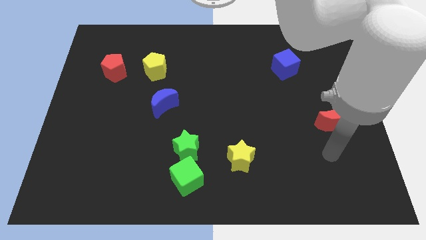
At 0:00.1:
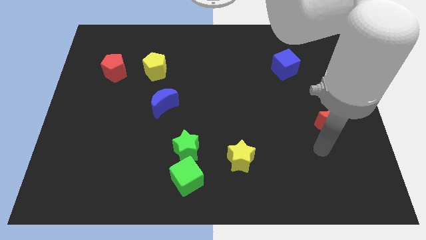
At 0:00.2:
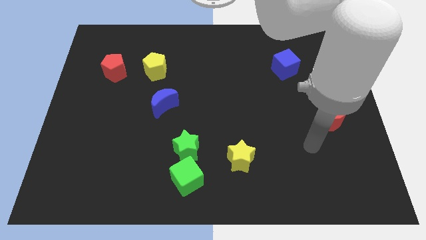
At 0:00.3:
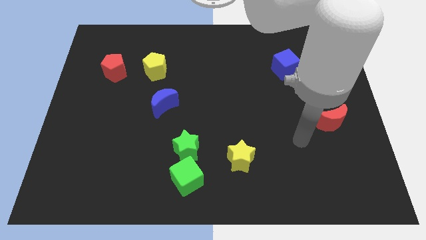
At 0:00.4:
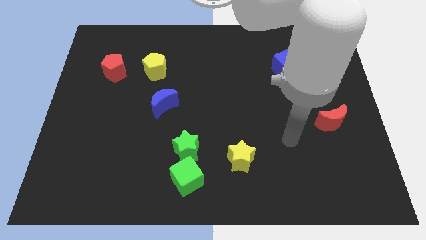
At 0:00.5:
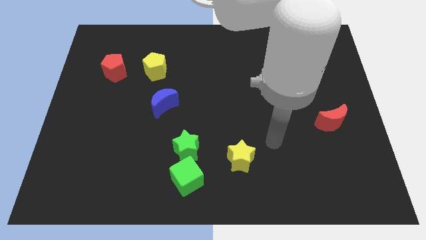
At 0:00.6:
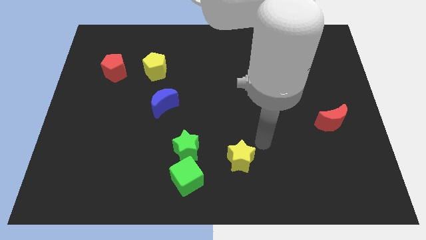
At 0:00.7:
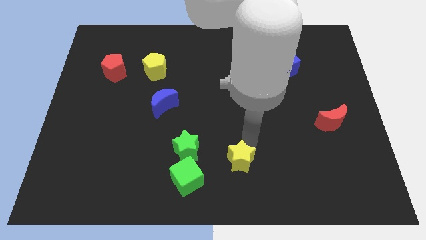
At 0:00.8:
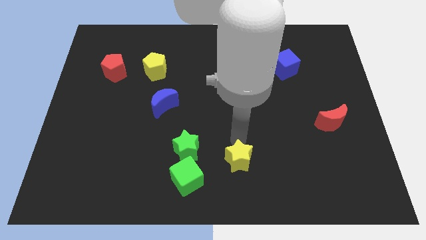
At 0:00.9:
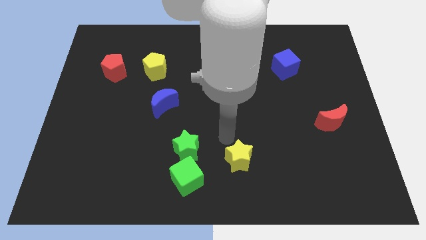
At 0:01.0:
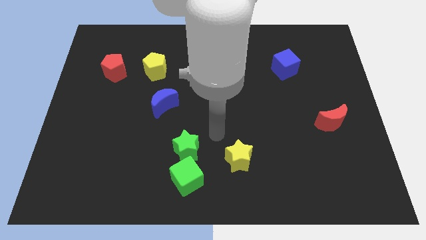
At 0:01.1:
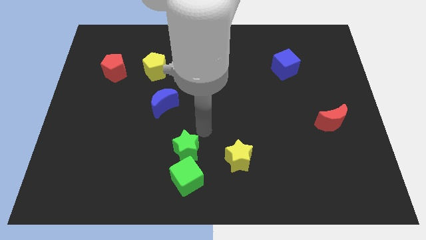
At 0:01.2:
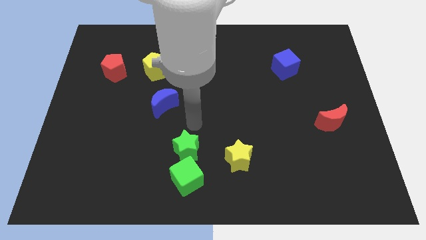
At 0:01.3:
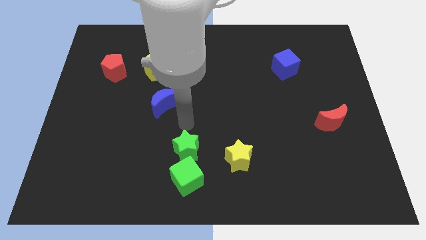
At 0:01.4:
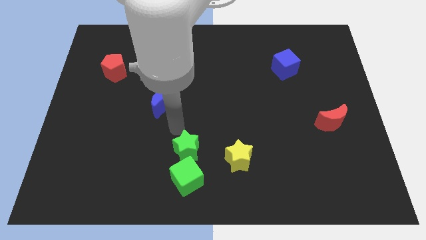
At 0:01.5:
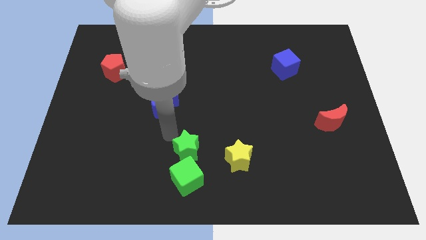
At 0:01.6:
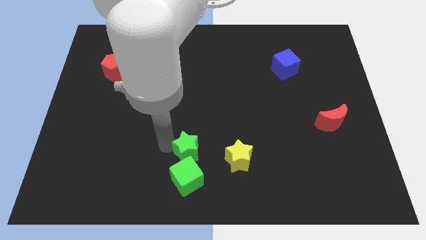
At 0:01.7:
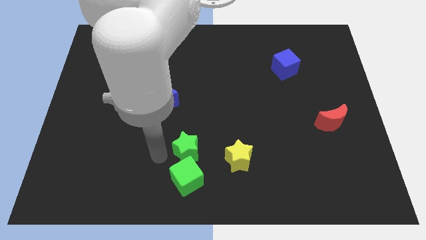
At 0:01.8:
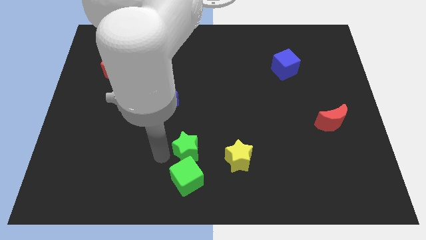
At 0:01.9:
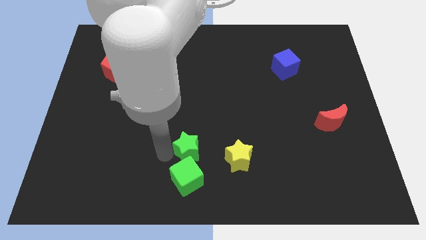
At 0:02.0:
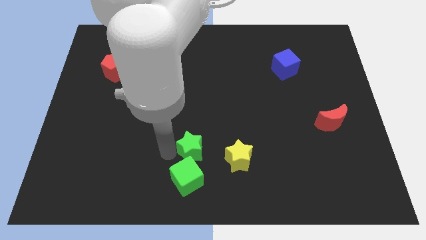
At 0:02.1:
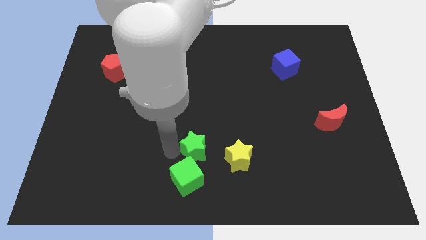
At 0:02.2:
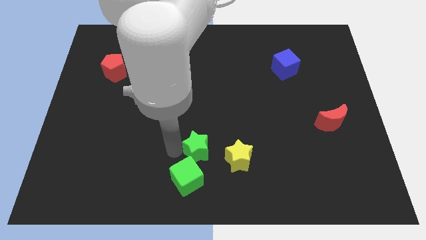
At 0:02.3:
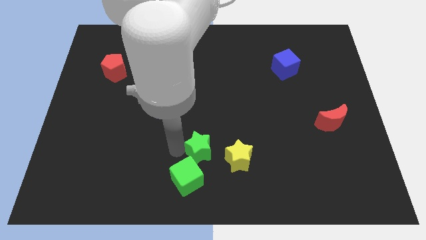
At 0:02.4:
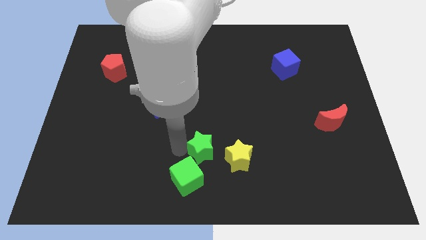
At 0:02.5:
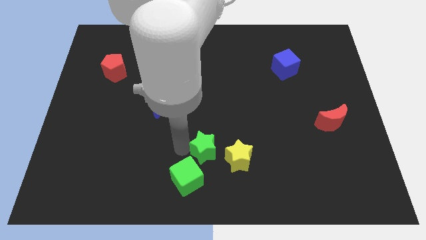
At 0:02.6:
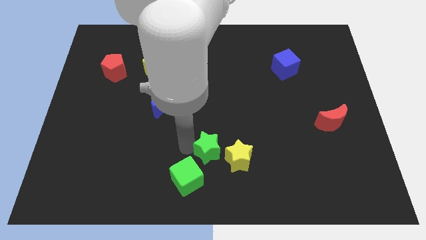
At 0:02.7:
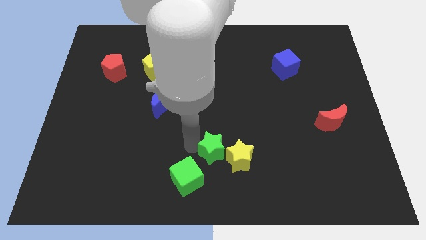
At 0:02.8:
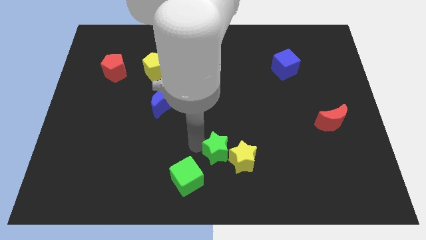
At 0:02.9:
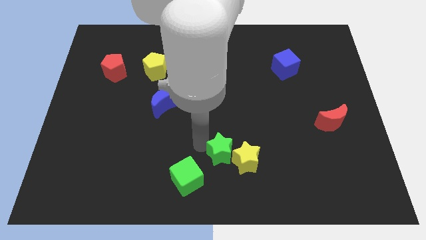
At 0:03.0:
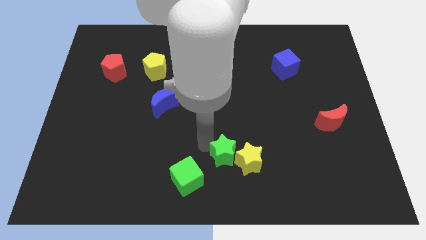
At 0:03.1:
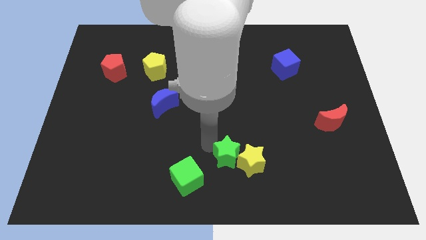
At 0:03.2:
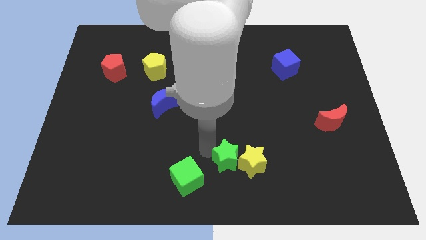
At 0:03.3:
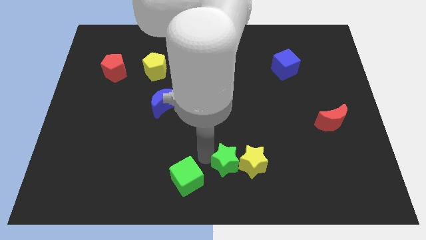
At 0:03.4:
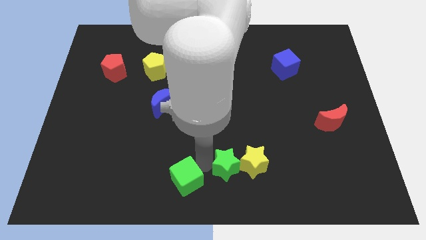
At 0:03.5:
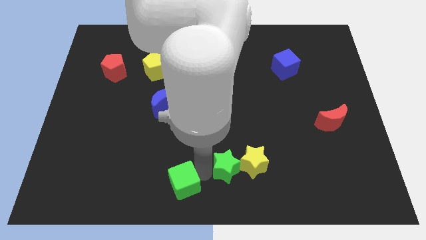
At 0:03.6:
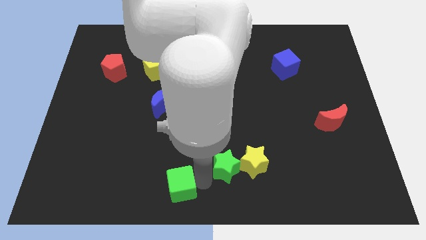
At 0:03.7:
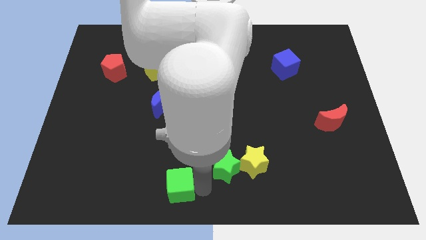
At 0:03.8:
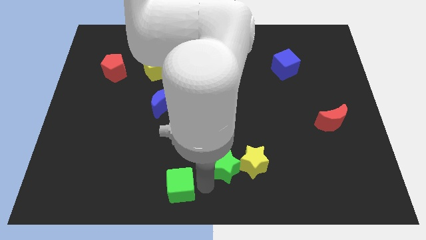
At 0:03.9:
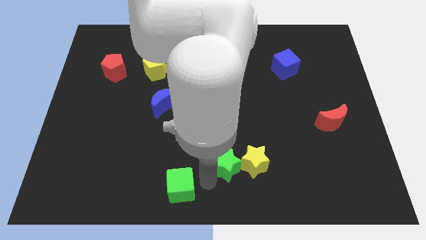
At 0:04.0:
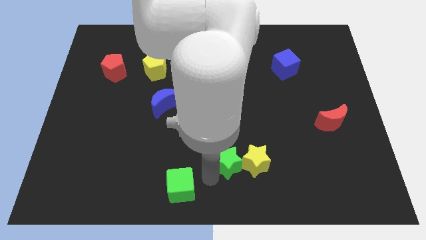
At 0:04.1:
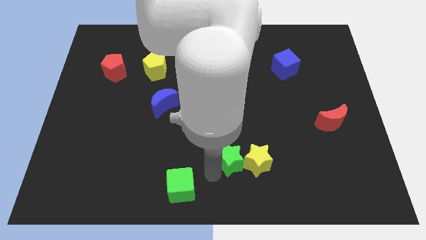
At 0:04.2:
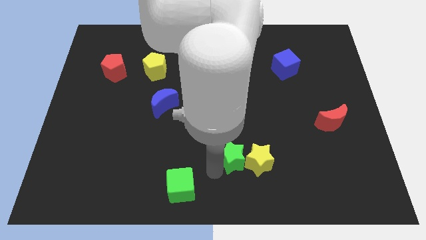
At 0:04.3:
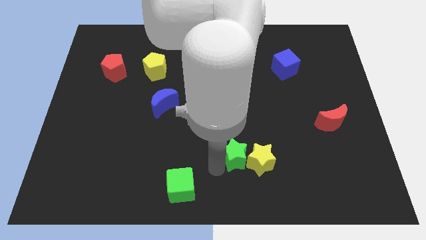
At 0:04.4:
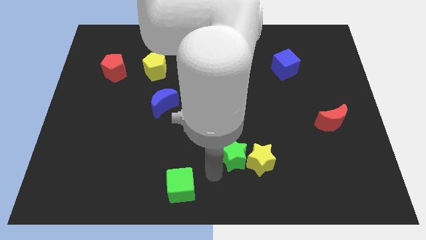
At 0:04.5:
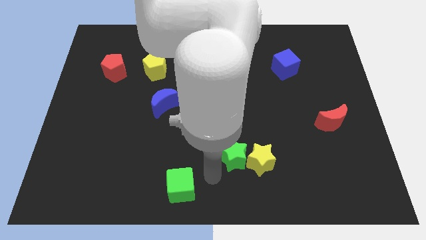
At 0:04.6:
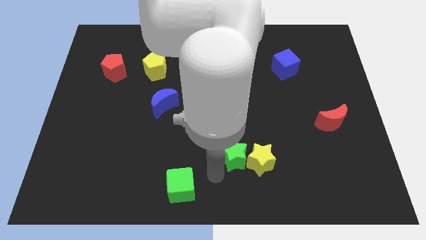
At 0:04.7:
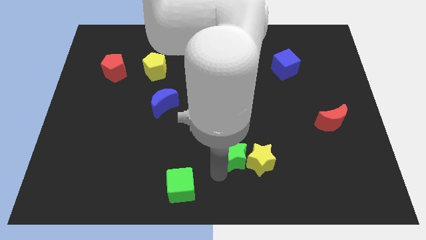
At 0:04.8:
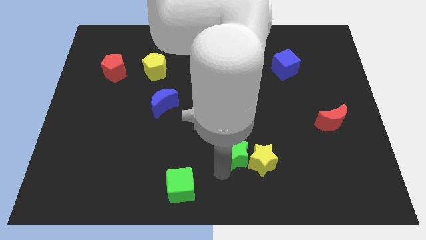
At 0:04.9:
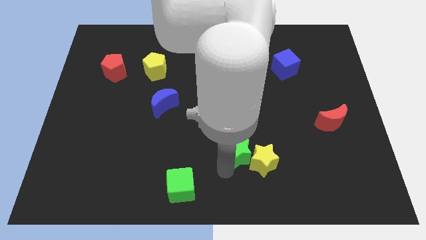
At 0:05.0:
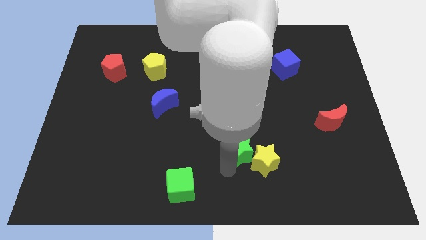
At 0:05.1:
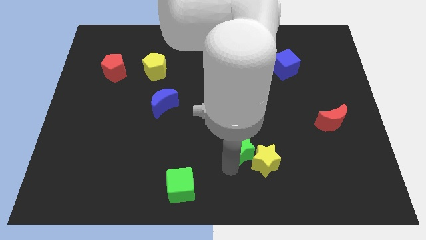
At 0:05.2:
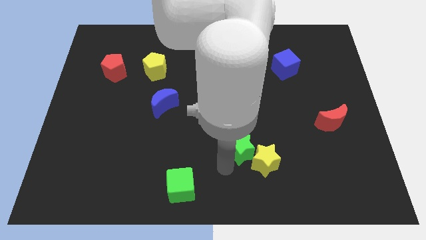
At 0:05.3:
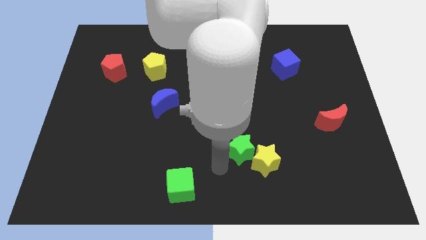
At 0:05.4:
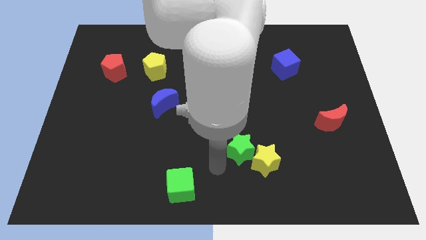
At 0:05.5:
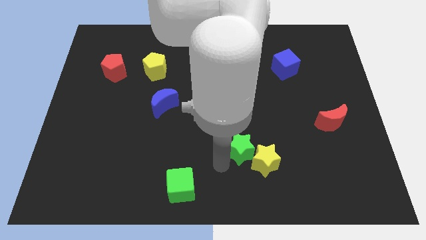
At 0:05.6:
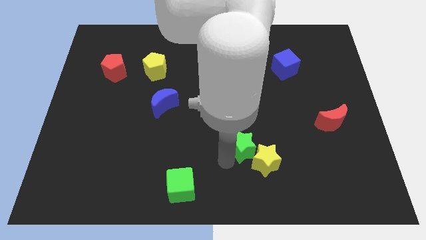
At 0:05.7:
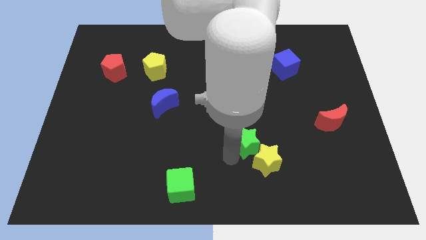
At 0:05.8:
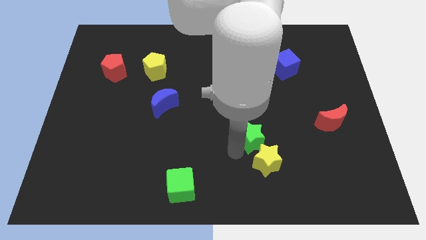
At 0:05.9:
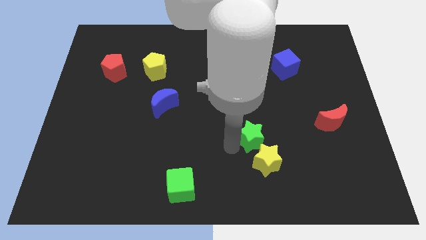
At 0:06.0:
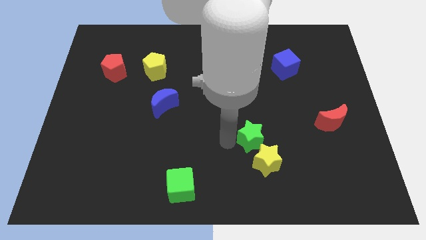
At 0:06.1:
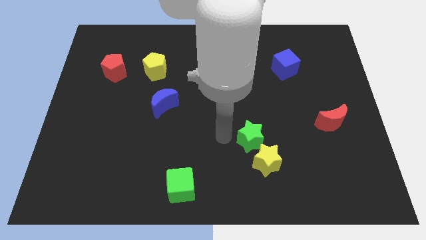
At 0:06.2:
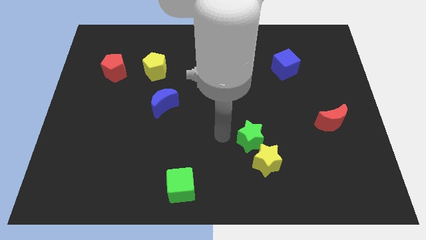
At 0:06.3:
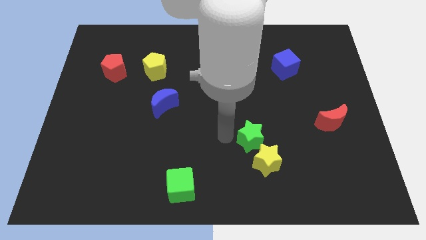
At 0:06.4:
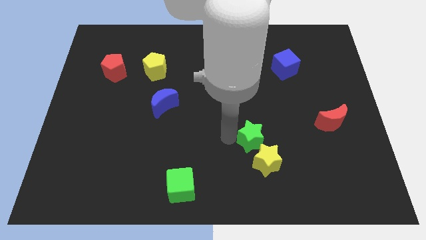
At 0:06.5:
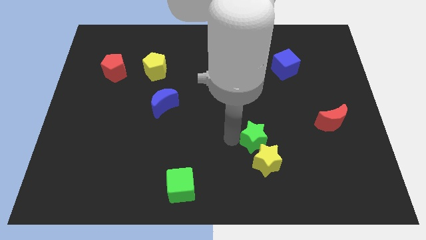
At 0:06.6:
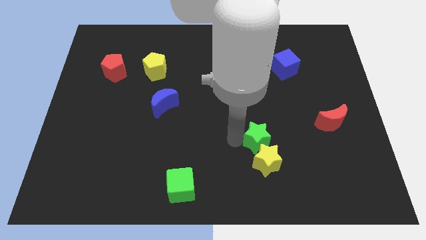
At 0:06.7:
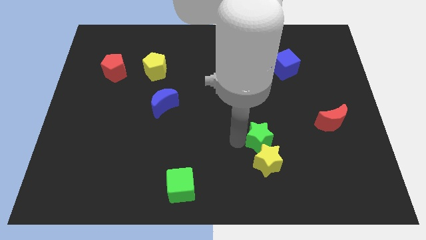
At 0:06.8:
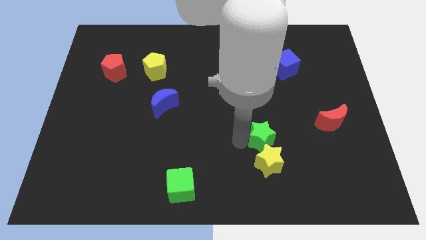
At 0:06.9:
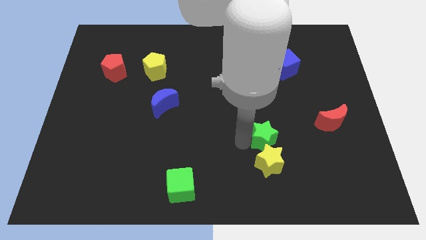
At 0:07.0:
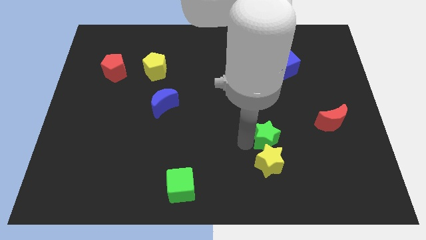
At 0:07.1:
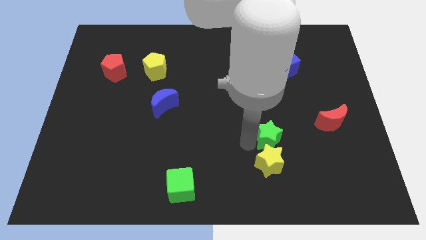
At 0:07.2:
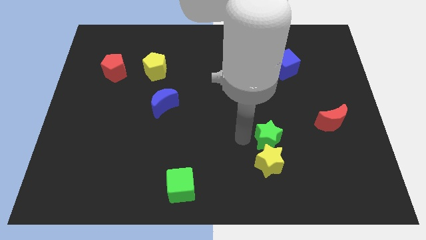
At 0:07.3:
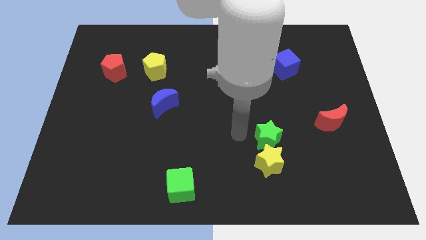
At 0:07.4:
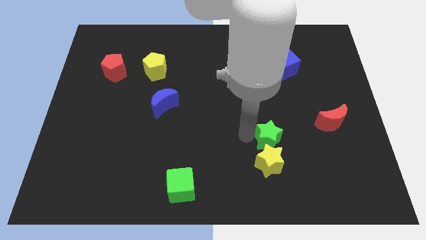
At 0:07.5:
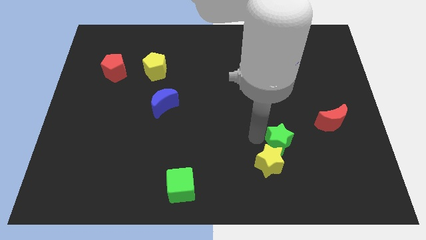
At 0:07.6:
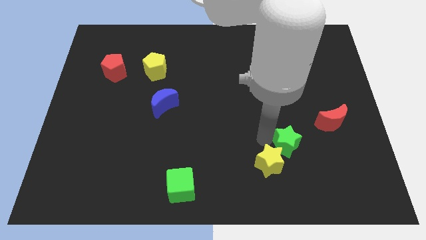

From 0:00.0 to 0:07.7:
push the green star to the right

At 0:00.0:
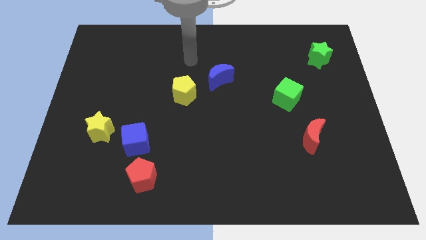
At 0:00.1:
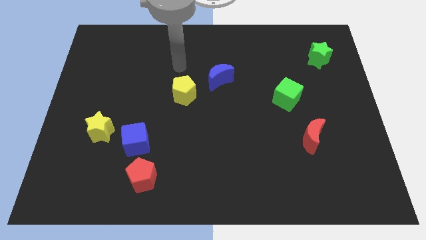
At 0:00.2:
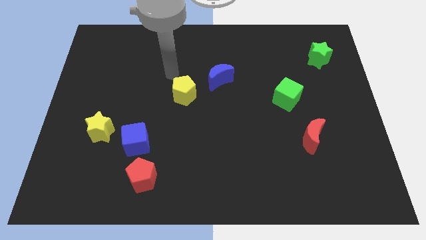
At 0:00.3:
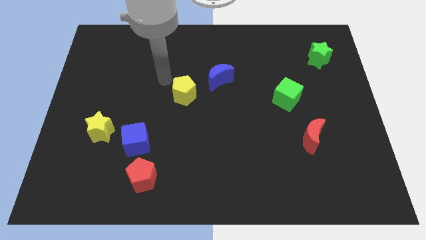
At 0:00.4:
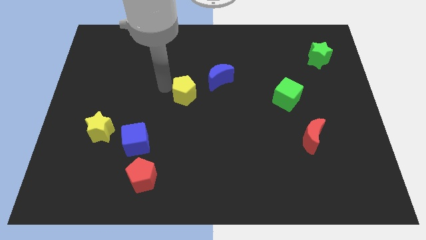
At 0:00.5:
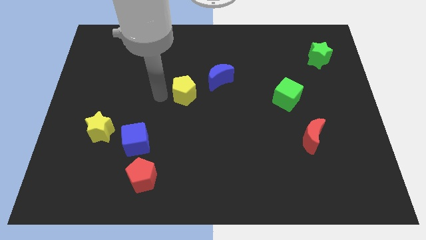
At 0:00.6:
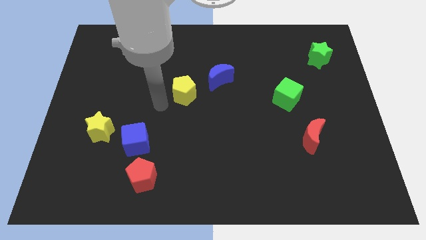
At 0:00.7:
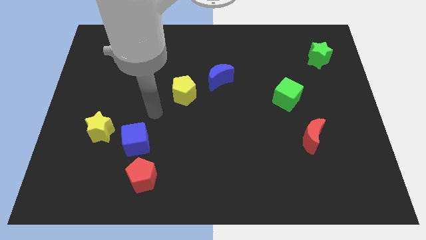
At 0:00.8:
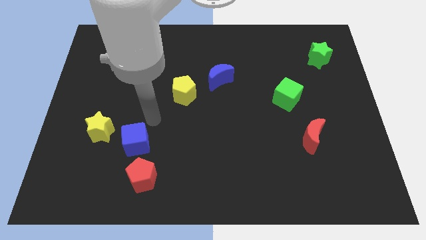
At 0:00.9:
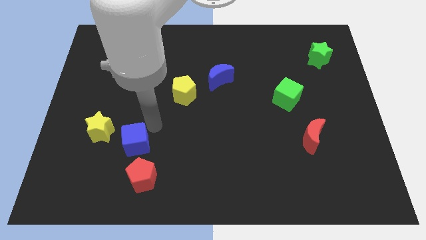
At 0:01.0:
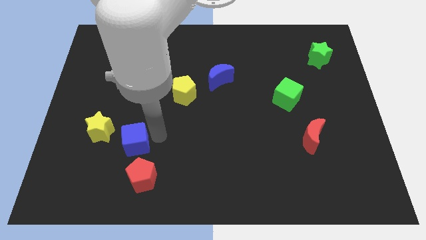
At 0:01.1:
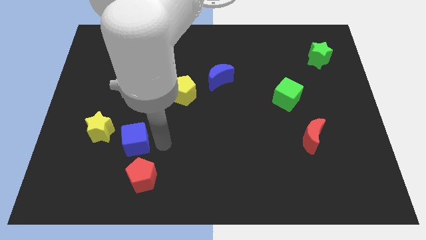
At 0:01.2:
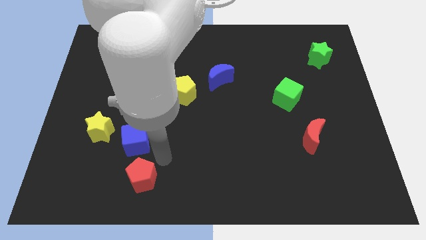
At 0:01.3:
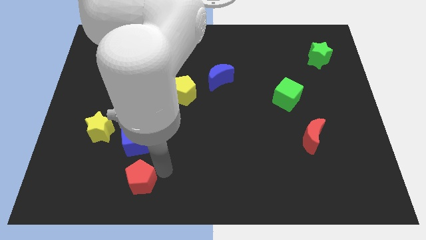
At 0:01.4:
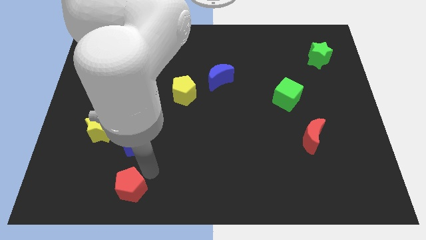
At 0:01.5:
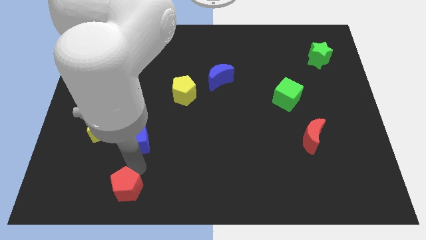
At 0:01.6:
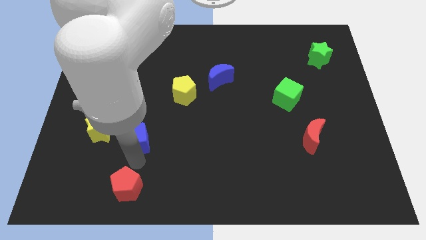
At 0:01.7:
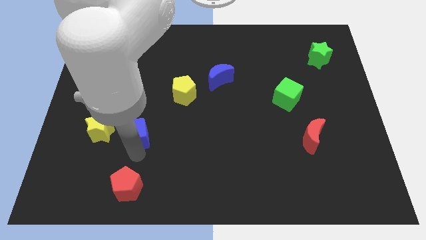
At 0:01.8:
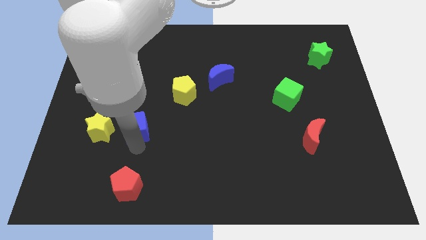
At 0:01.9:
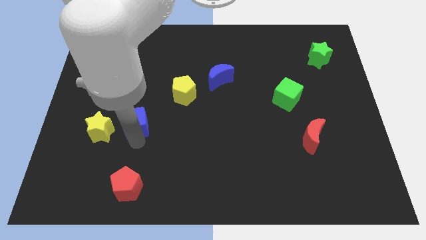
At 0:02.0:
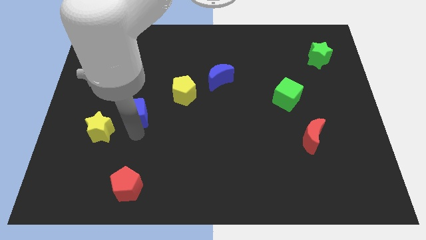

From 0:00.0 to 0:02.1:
slide the blue cube somewhat upwards
